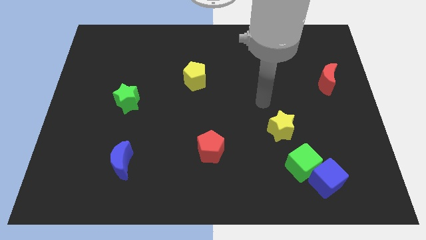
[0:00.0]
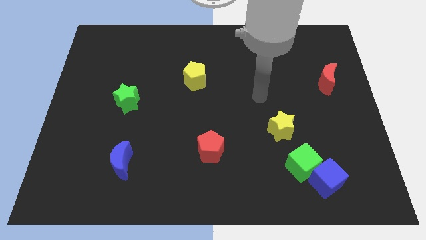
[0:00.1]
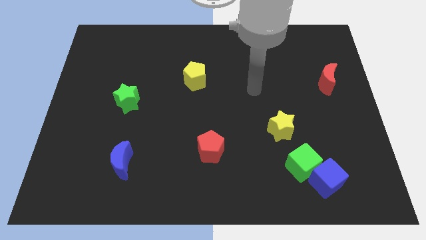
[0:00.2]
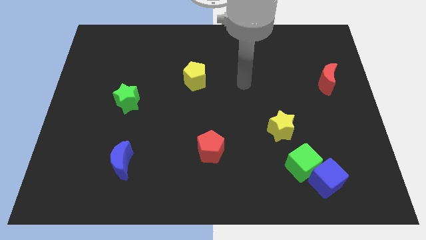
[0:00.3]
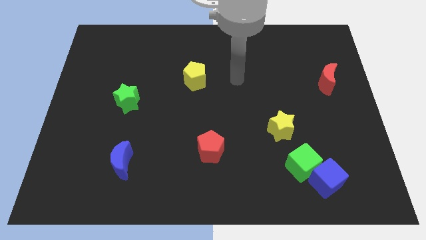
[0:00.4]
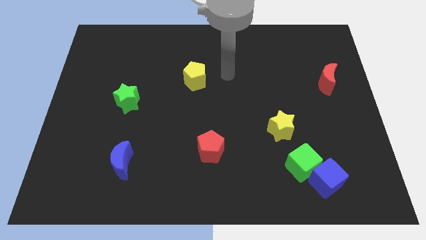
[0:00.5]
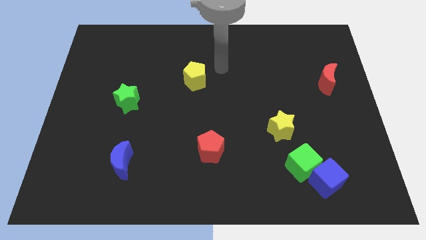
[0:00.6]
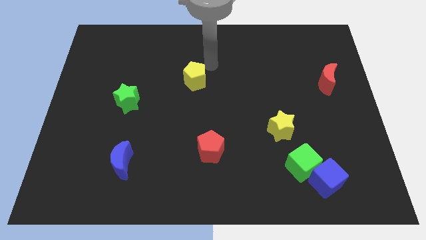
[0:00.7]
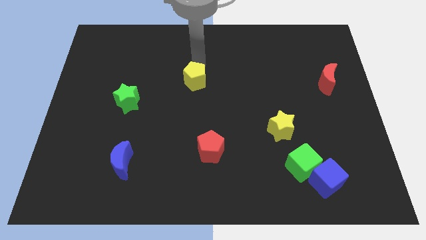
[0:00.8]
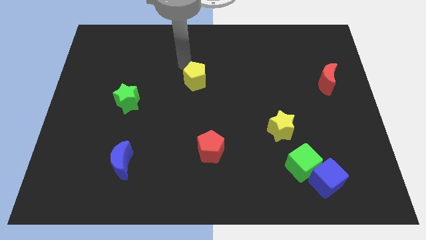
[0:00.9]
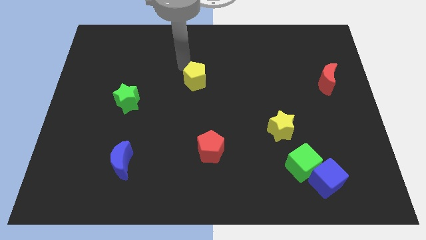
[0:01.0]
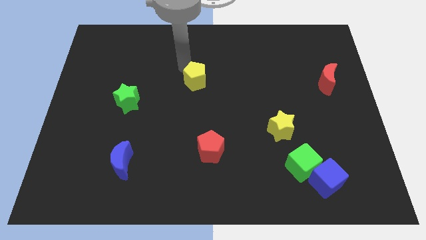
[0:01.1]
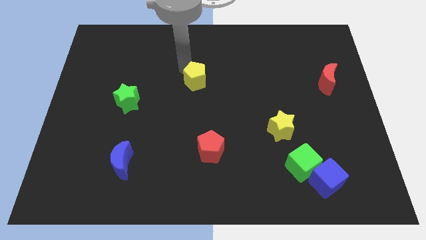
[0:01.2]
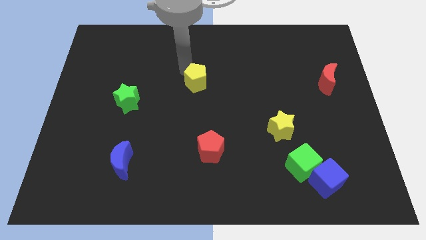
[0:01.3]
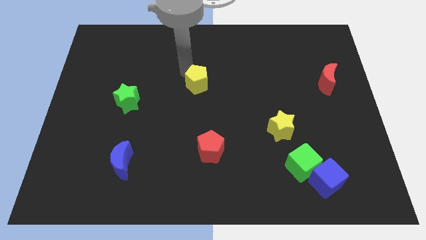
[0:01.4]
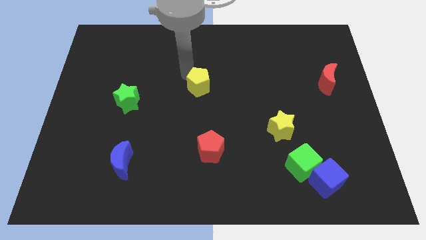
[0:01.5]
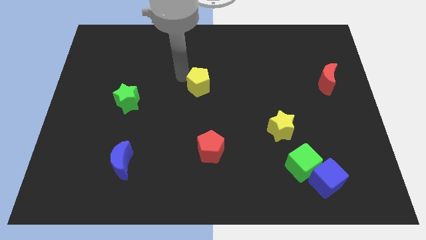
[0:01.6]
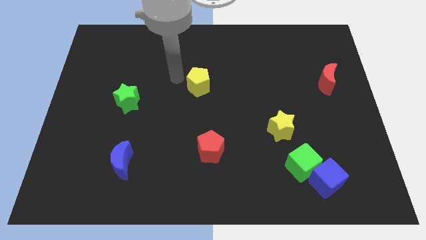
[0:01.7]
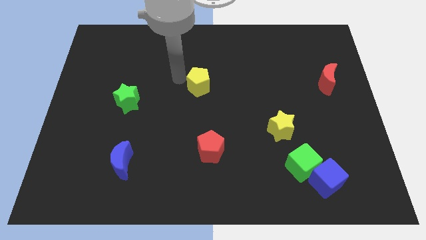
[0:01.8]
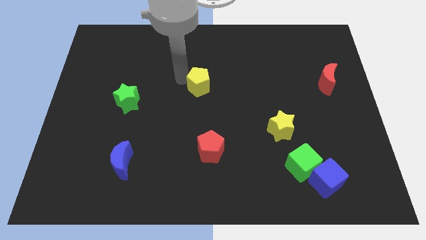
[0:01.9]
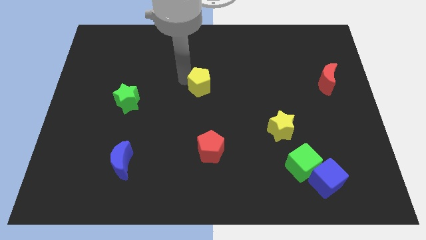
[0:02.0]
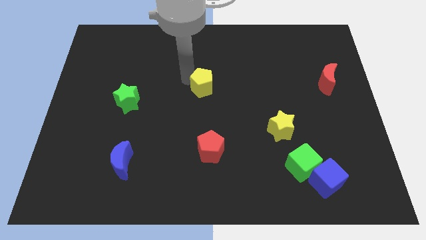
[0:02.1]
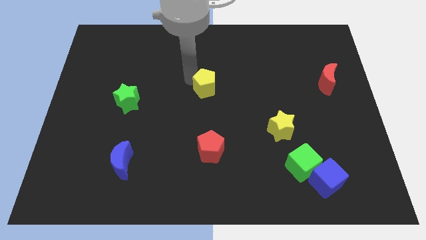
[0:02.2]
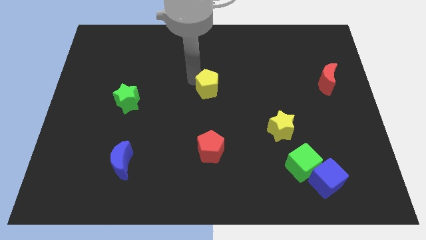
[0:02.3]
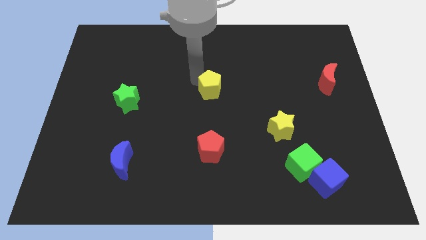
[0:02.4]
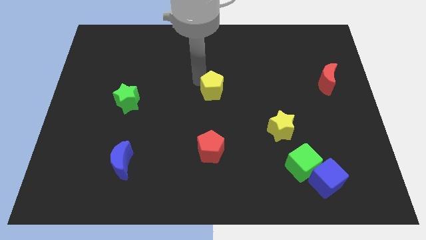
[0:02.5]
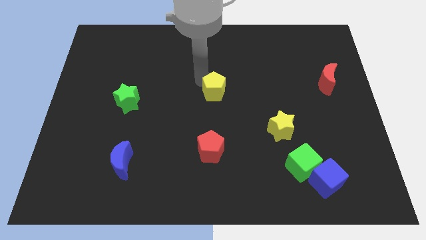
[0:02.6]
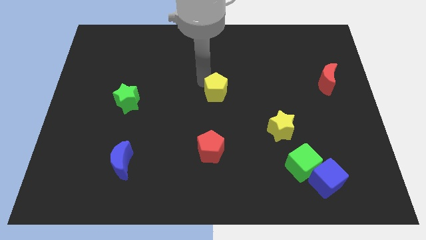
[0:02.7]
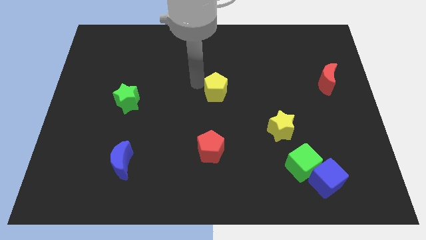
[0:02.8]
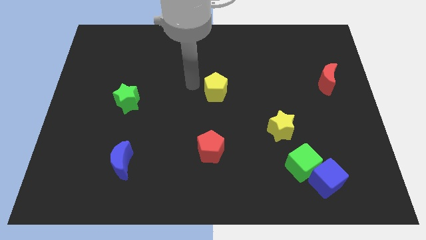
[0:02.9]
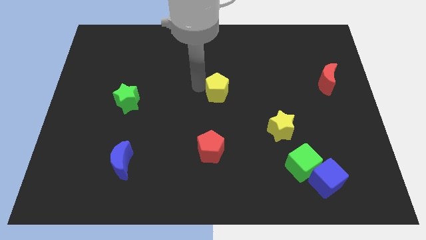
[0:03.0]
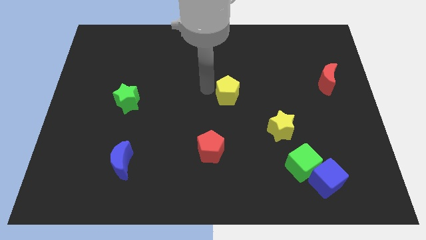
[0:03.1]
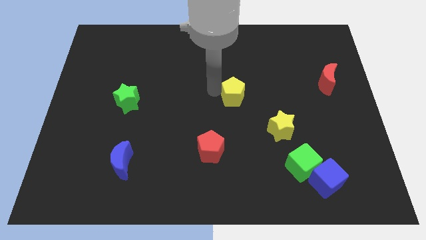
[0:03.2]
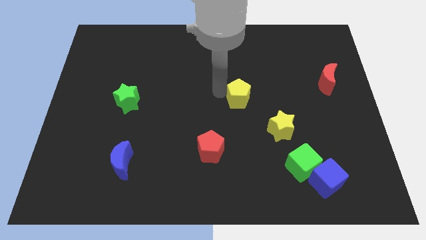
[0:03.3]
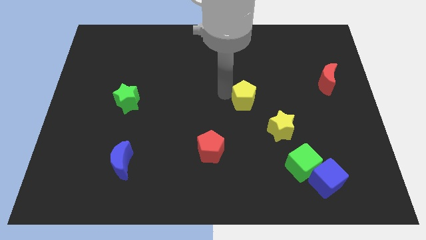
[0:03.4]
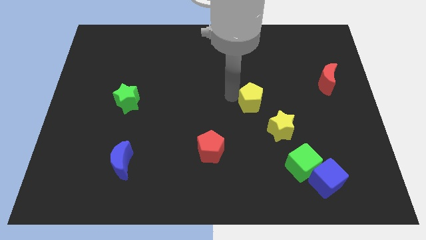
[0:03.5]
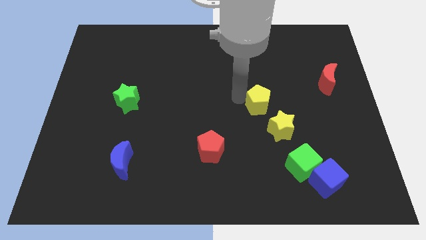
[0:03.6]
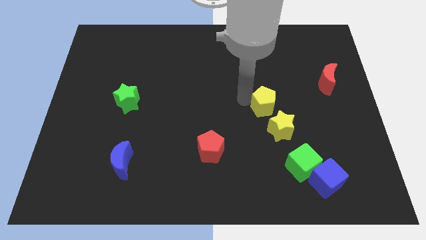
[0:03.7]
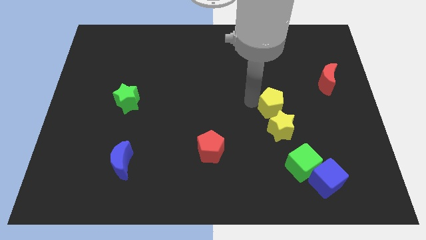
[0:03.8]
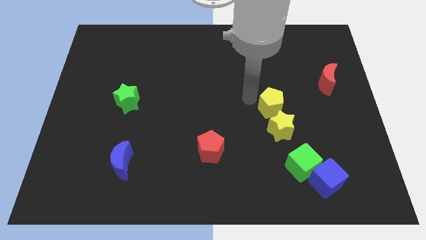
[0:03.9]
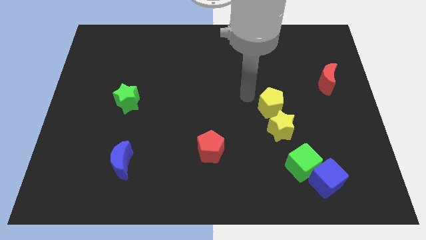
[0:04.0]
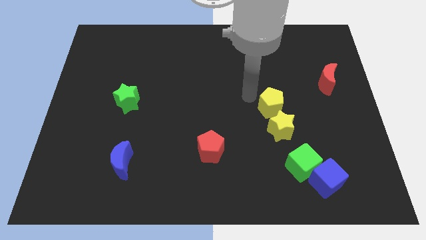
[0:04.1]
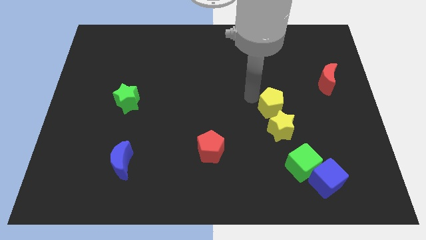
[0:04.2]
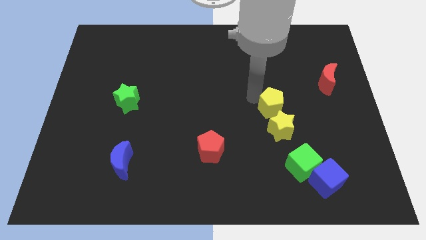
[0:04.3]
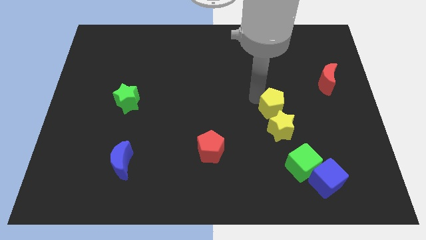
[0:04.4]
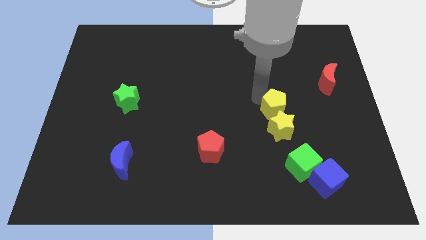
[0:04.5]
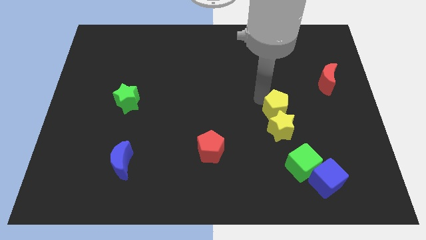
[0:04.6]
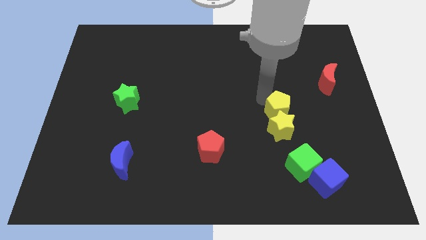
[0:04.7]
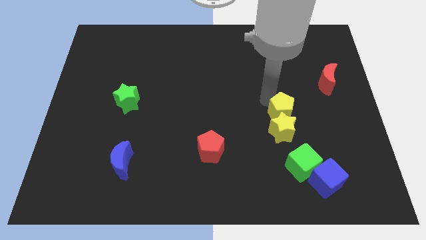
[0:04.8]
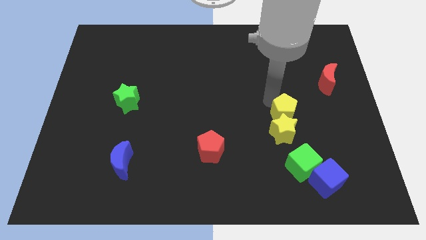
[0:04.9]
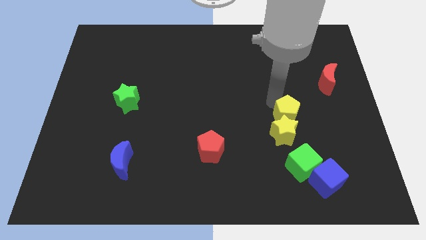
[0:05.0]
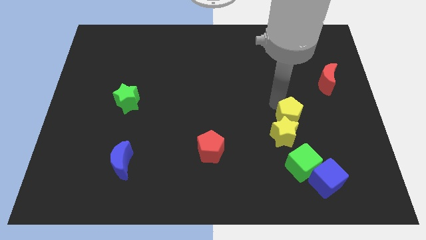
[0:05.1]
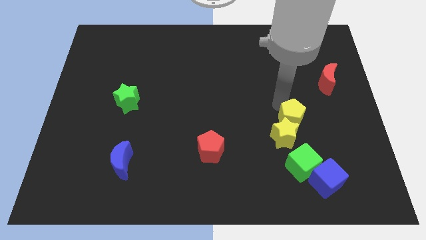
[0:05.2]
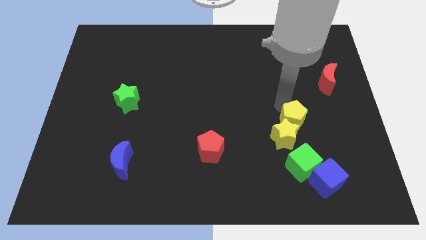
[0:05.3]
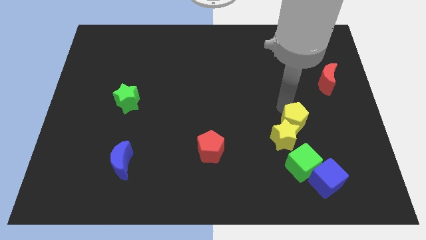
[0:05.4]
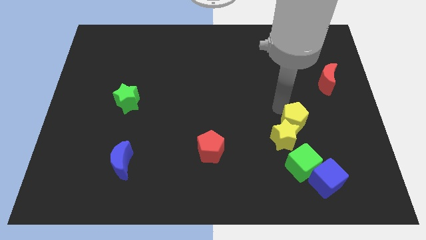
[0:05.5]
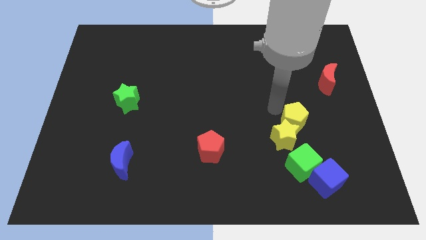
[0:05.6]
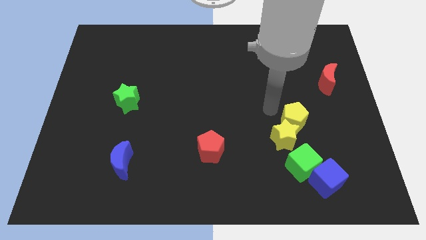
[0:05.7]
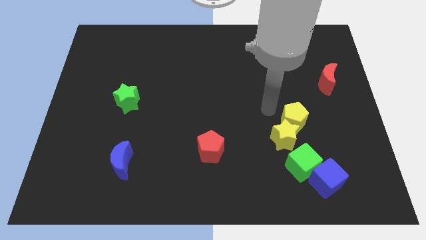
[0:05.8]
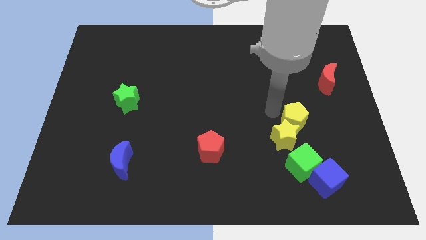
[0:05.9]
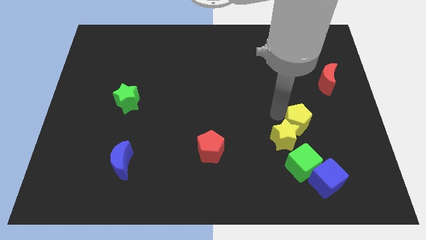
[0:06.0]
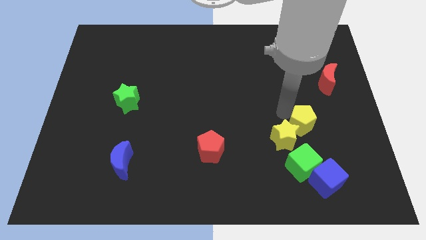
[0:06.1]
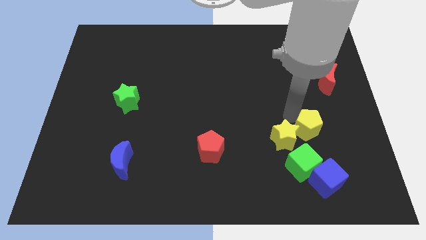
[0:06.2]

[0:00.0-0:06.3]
slide the yellow pentagon to the top right of the green cube
